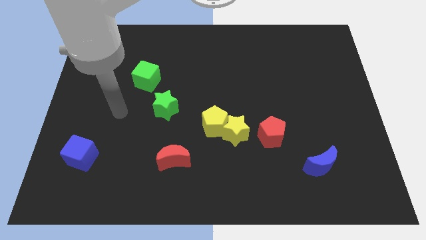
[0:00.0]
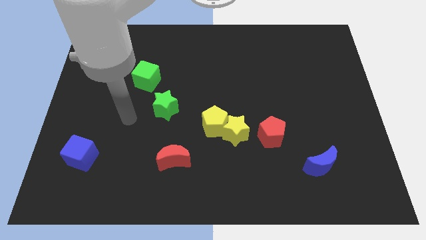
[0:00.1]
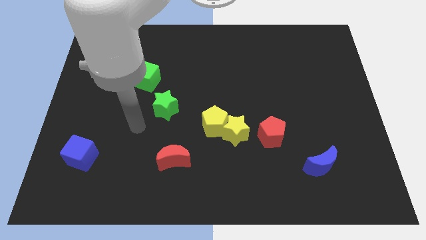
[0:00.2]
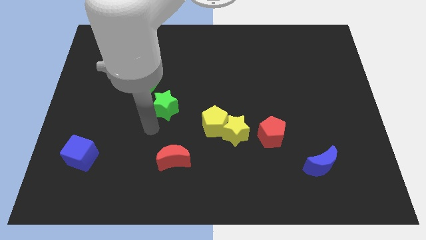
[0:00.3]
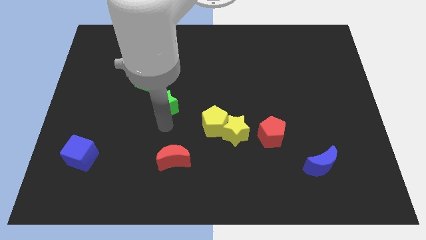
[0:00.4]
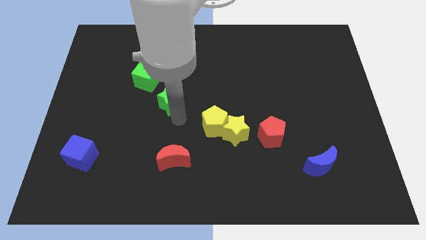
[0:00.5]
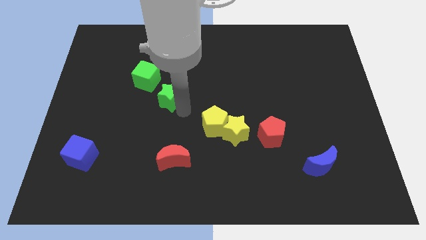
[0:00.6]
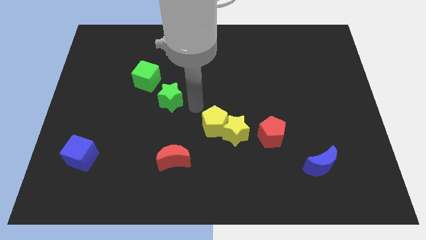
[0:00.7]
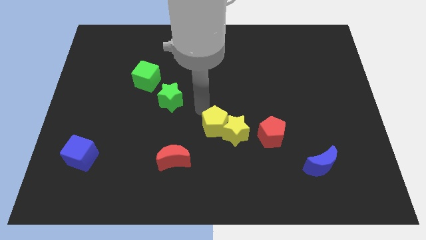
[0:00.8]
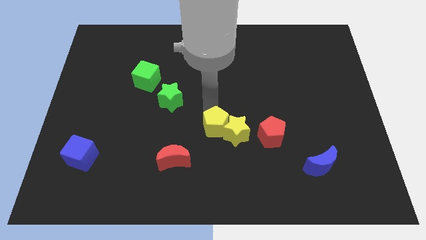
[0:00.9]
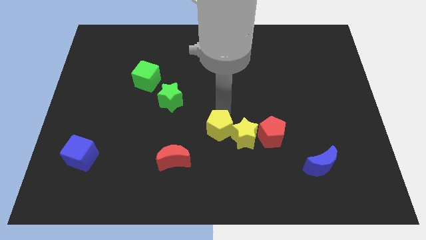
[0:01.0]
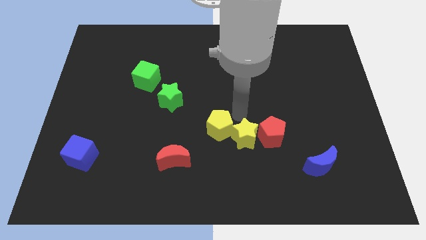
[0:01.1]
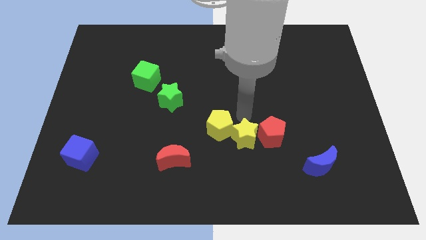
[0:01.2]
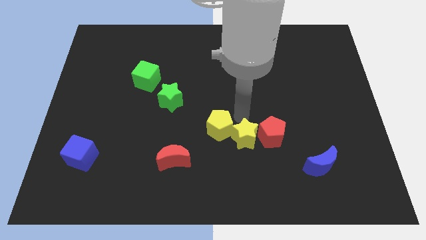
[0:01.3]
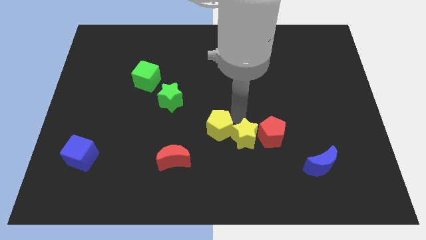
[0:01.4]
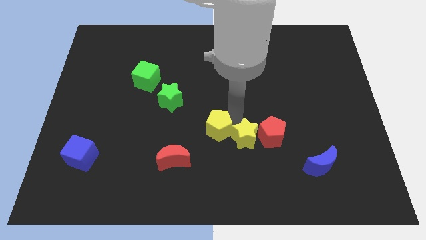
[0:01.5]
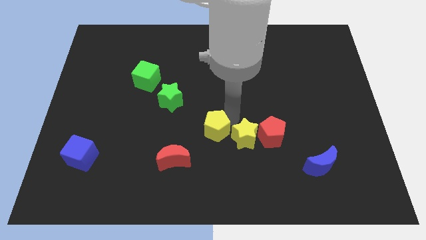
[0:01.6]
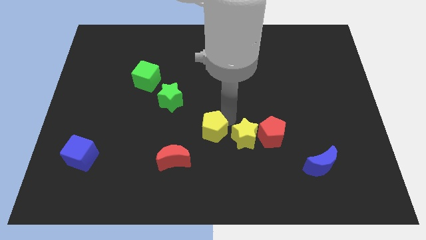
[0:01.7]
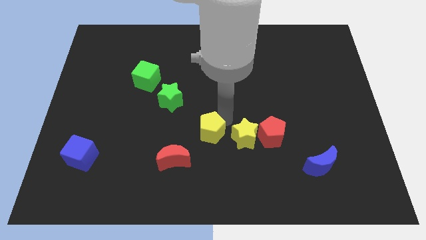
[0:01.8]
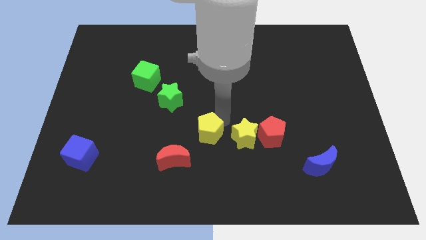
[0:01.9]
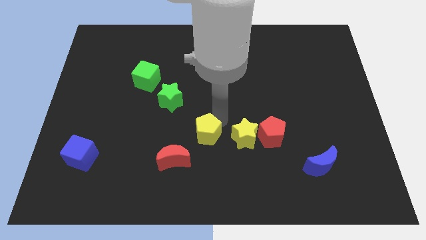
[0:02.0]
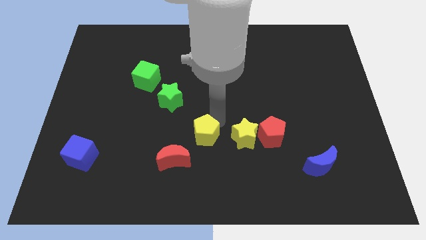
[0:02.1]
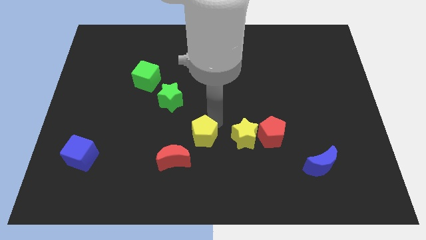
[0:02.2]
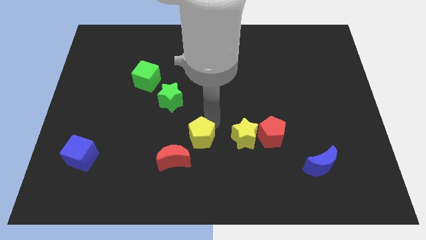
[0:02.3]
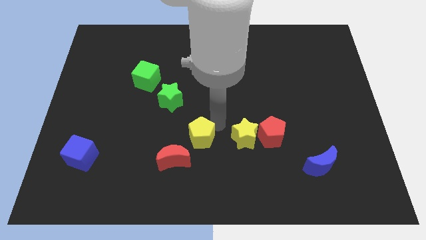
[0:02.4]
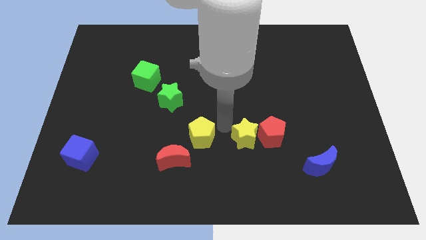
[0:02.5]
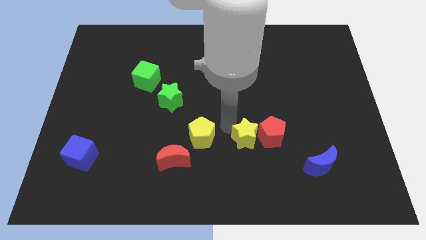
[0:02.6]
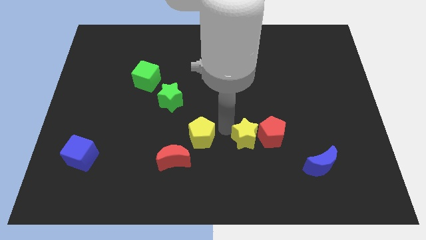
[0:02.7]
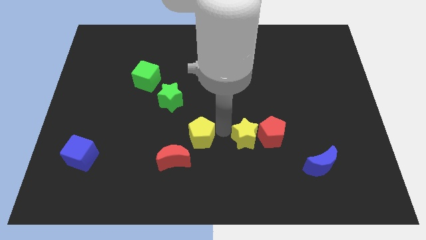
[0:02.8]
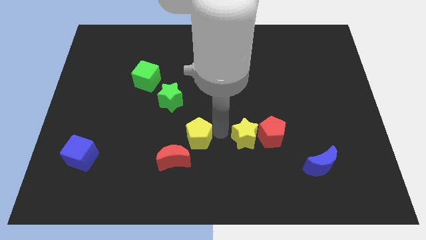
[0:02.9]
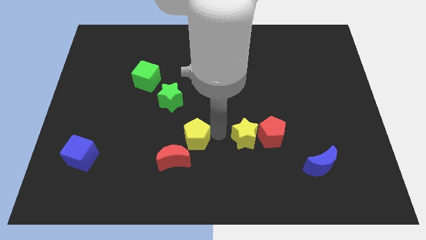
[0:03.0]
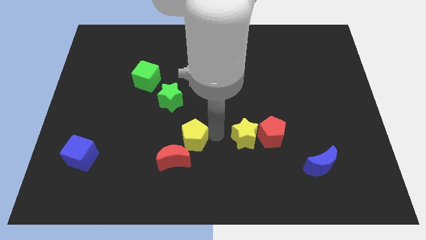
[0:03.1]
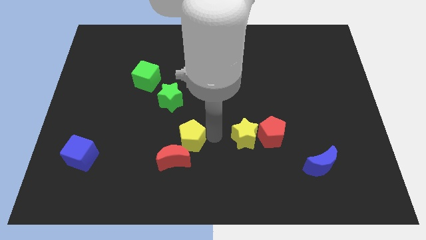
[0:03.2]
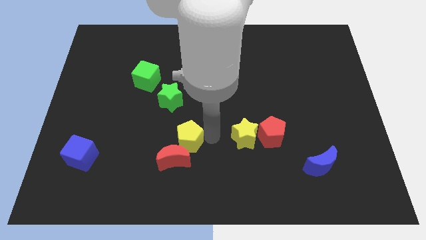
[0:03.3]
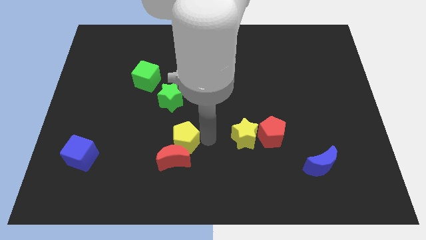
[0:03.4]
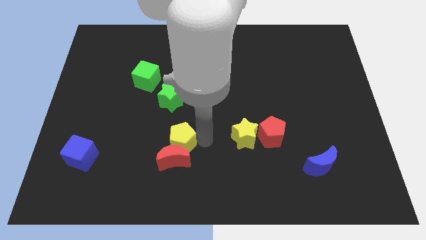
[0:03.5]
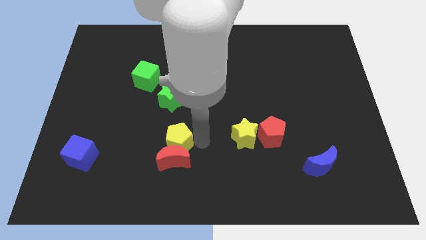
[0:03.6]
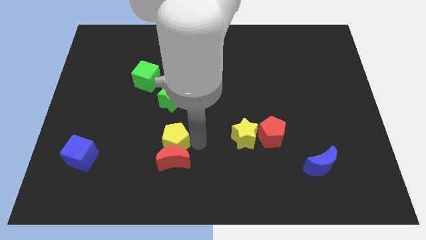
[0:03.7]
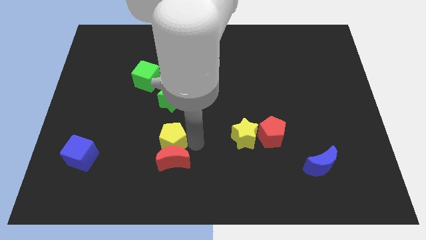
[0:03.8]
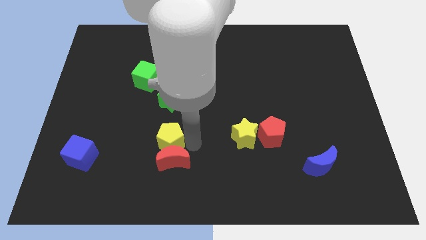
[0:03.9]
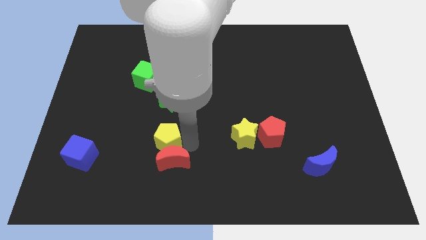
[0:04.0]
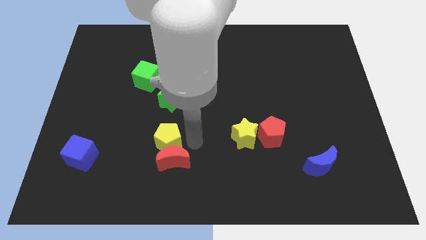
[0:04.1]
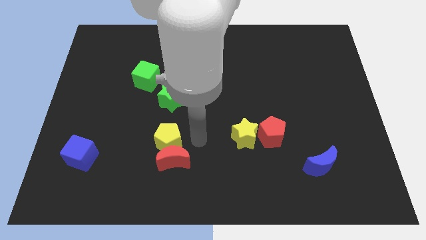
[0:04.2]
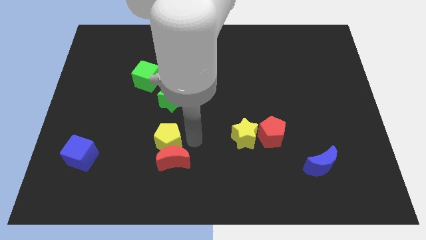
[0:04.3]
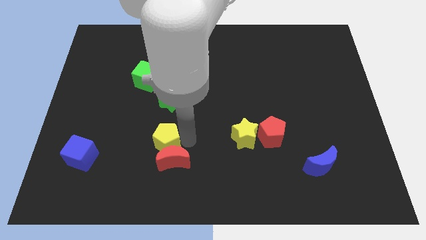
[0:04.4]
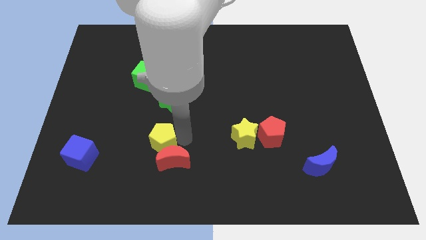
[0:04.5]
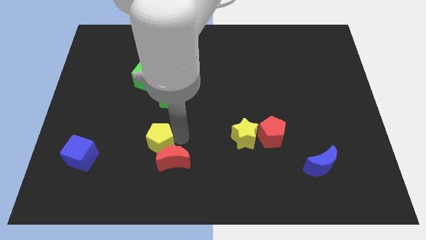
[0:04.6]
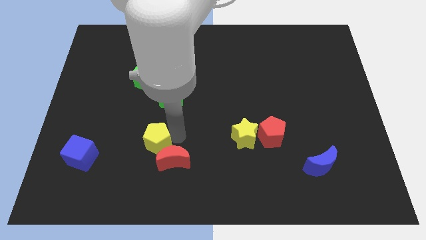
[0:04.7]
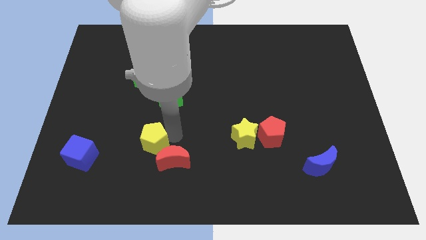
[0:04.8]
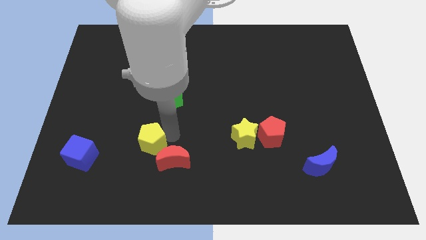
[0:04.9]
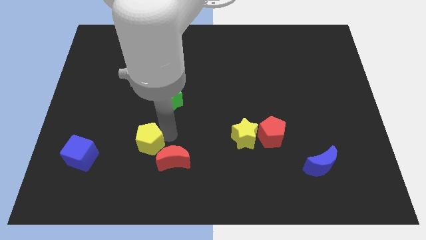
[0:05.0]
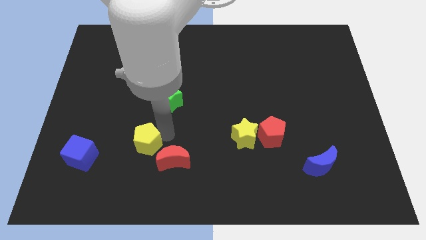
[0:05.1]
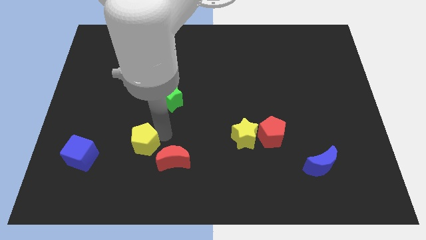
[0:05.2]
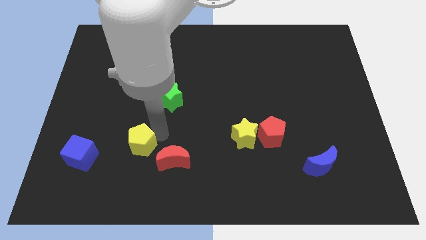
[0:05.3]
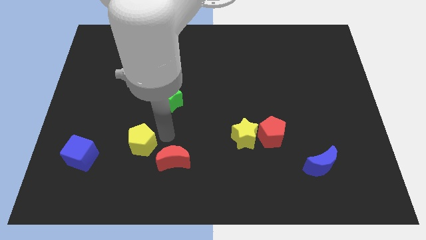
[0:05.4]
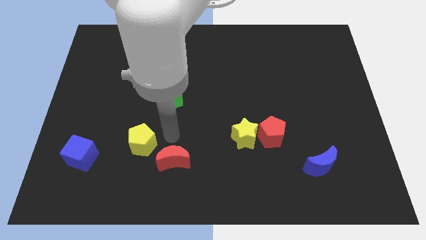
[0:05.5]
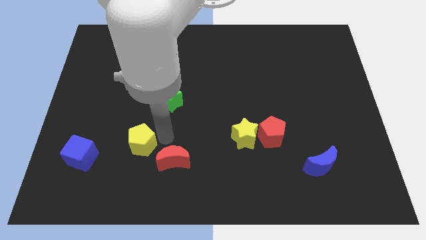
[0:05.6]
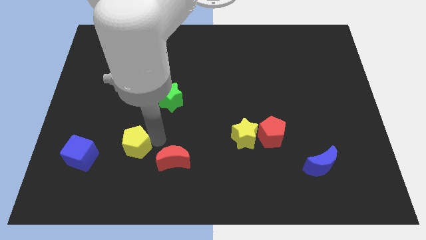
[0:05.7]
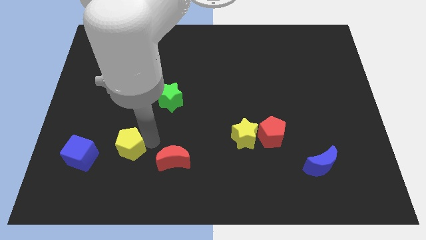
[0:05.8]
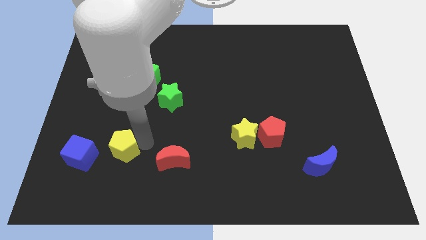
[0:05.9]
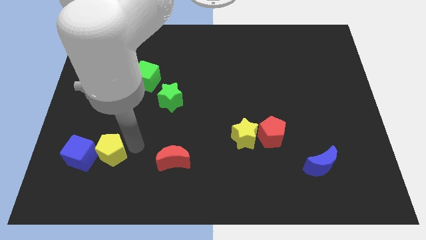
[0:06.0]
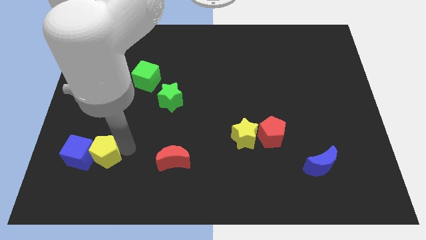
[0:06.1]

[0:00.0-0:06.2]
move the yellow pentagon next to the blue cube

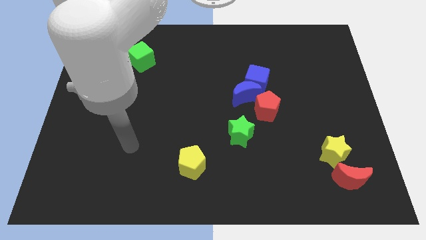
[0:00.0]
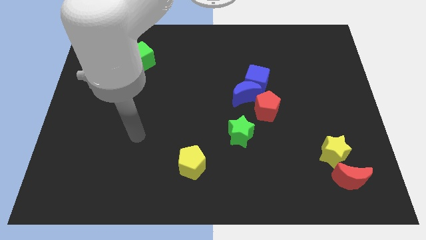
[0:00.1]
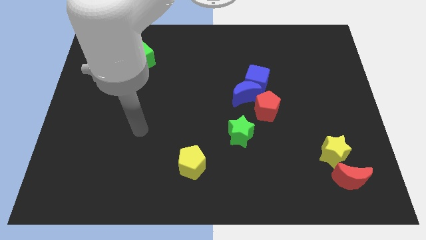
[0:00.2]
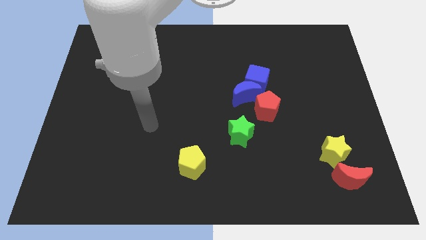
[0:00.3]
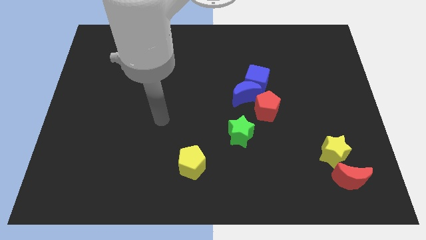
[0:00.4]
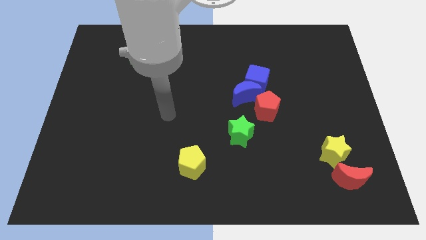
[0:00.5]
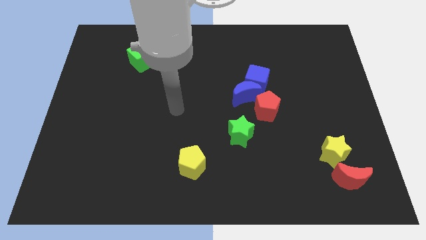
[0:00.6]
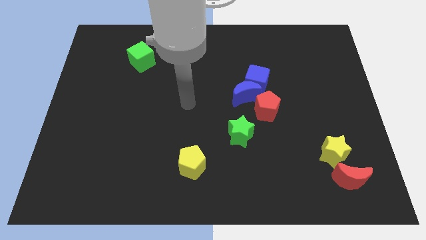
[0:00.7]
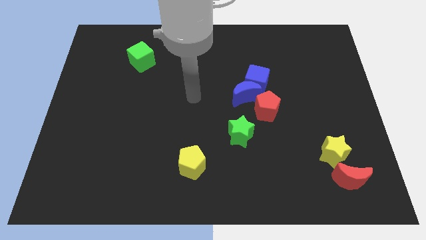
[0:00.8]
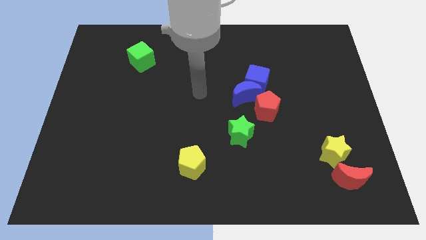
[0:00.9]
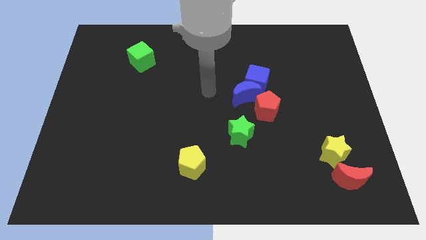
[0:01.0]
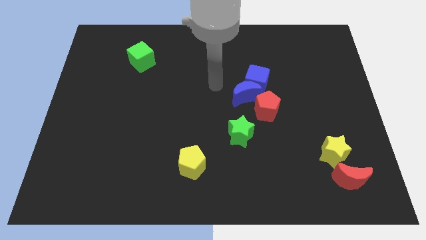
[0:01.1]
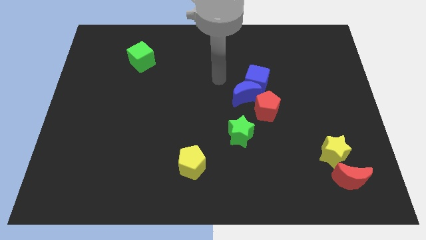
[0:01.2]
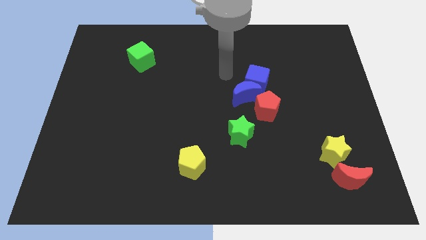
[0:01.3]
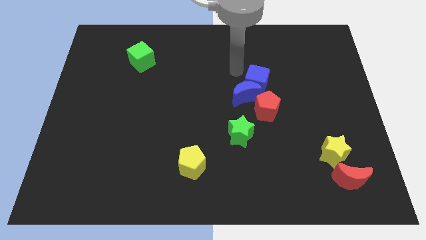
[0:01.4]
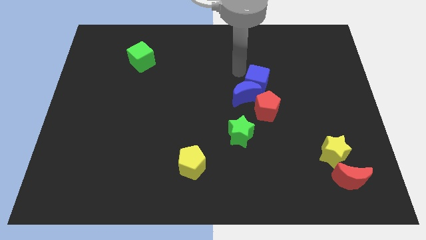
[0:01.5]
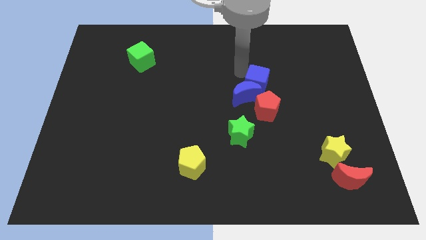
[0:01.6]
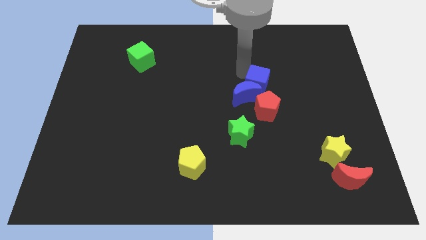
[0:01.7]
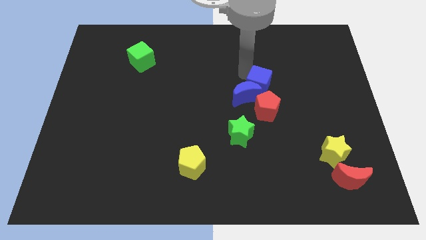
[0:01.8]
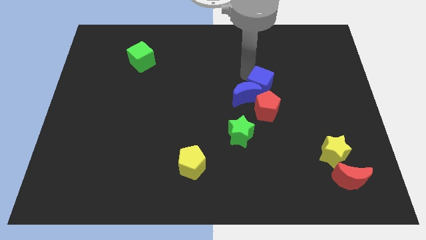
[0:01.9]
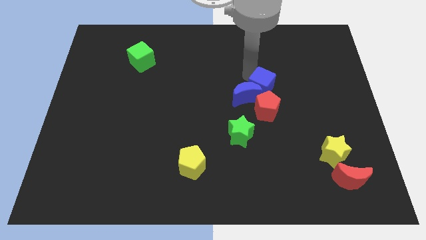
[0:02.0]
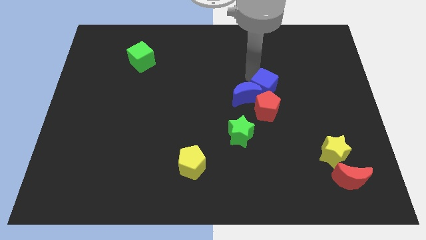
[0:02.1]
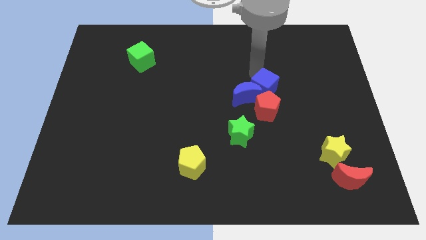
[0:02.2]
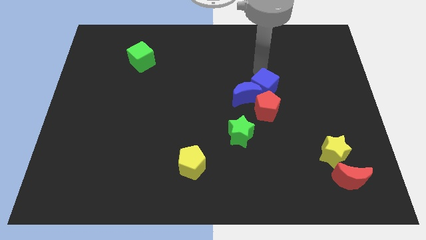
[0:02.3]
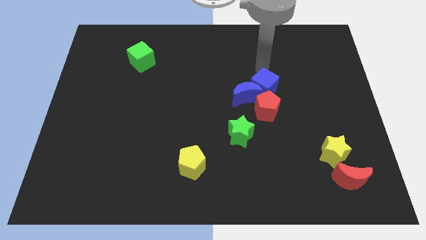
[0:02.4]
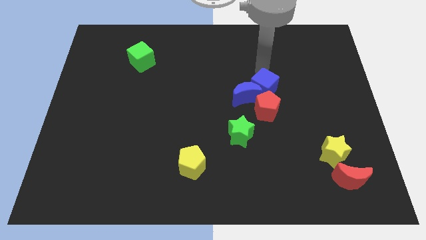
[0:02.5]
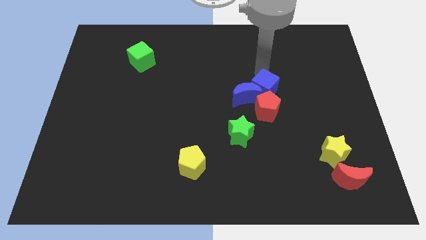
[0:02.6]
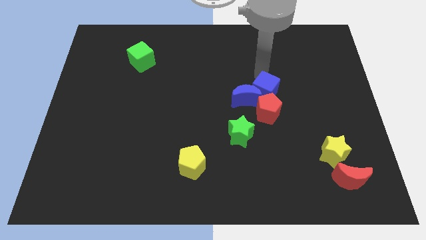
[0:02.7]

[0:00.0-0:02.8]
slide the blue cube close to the red pentagon
